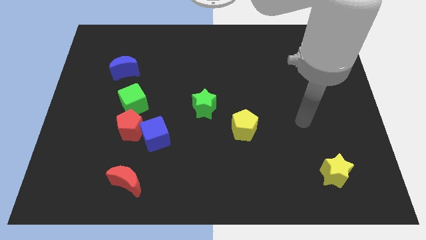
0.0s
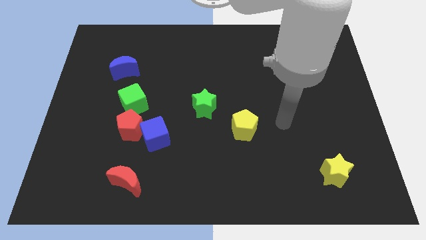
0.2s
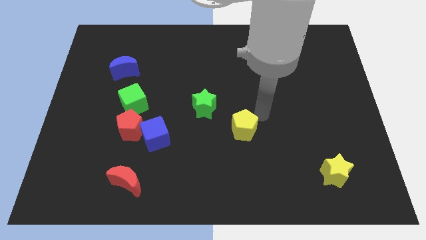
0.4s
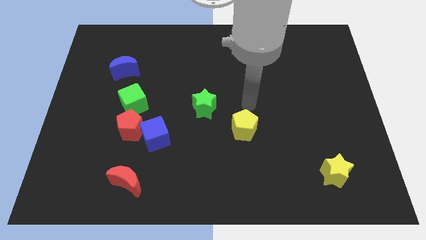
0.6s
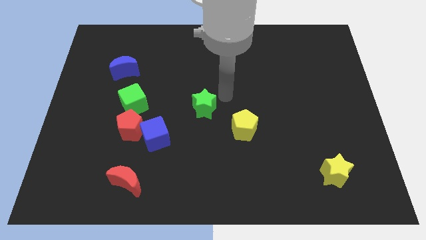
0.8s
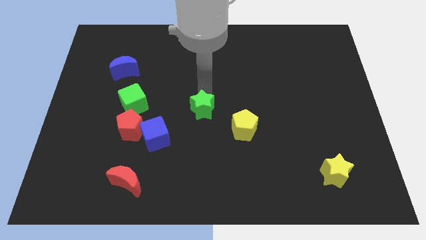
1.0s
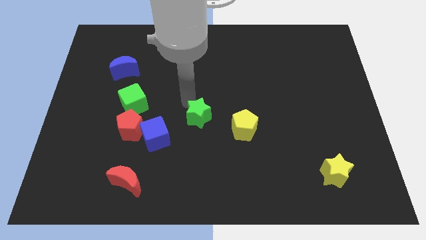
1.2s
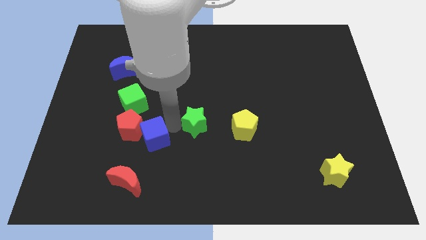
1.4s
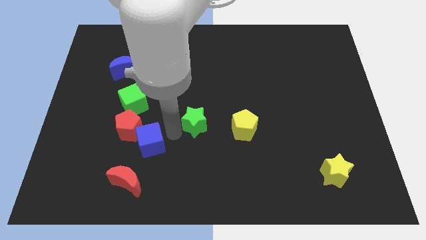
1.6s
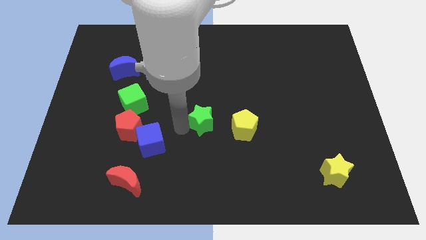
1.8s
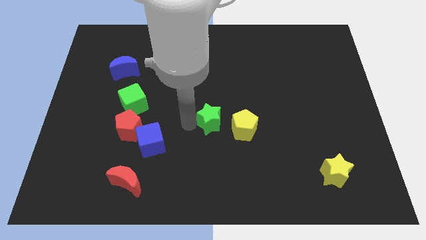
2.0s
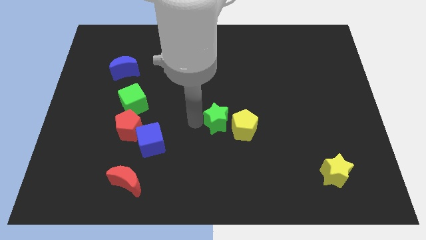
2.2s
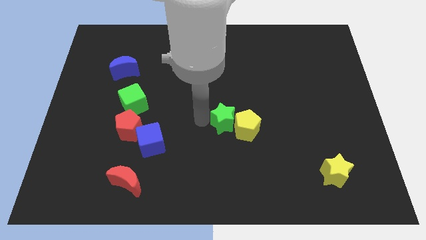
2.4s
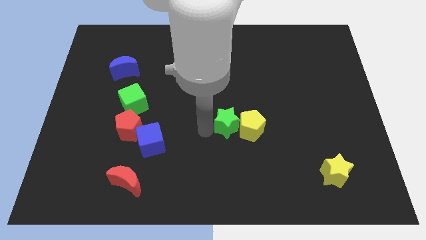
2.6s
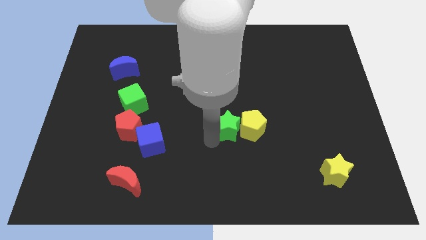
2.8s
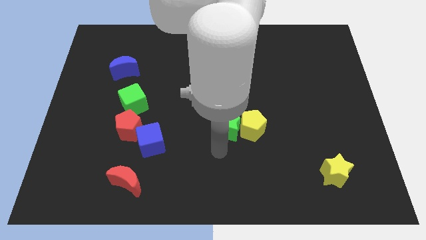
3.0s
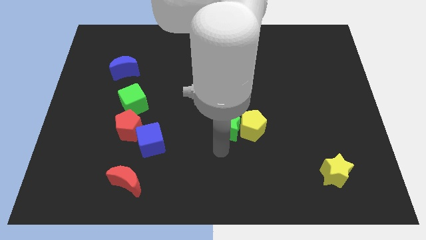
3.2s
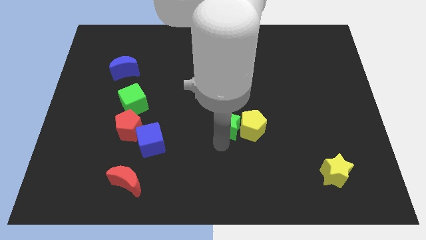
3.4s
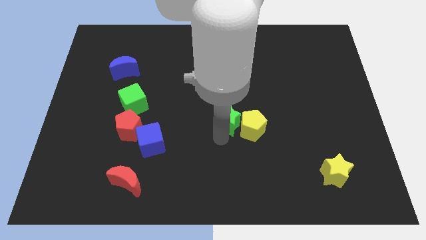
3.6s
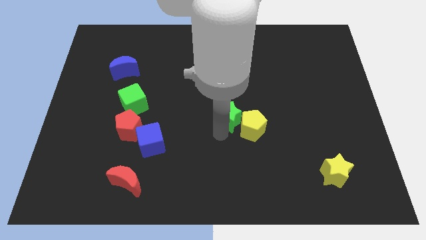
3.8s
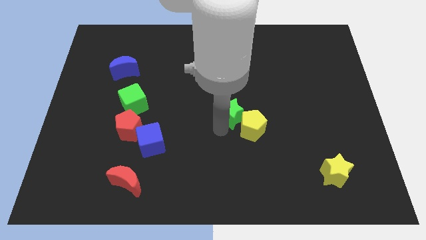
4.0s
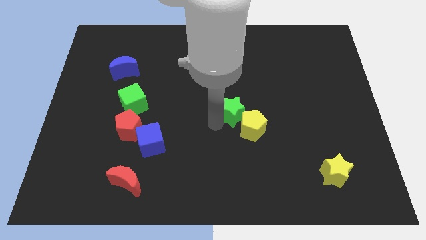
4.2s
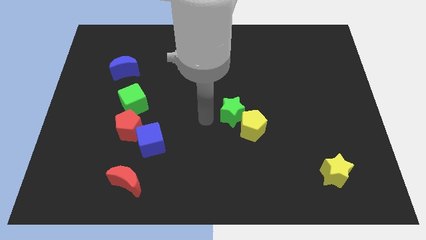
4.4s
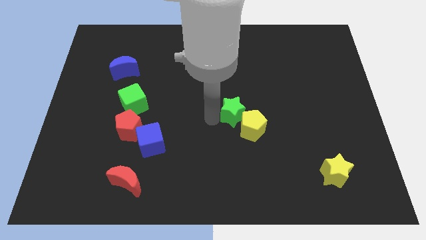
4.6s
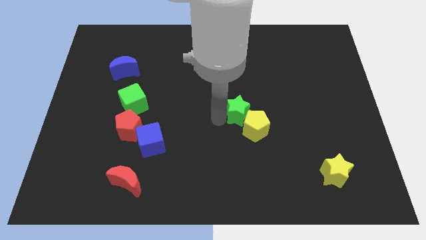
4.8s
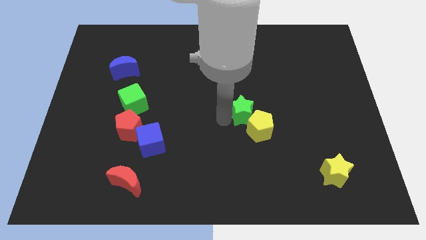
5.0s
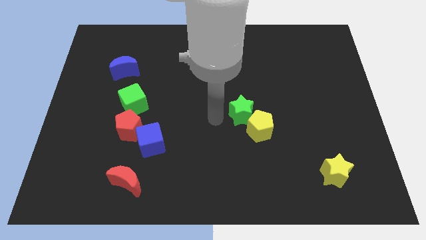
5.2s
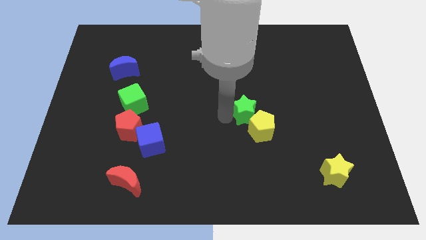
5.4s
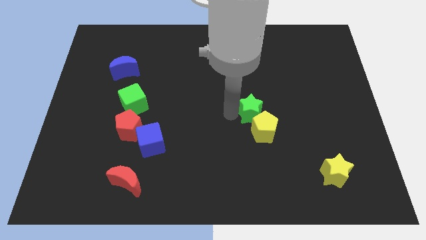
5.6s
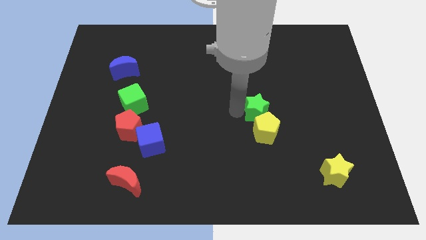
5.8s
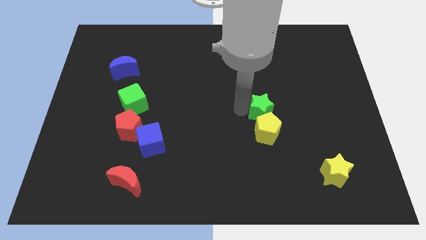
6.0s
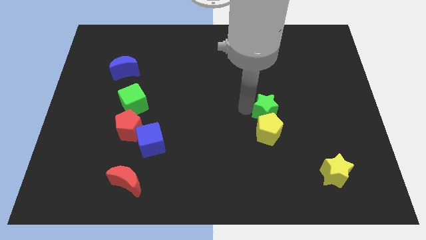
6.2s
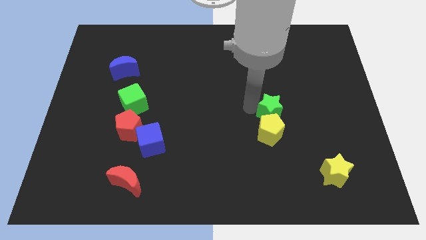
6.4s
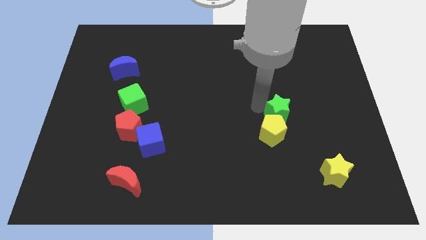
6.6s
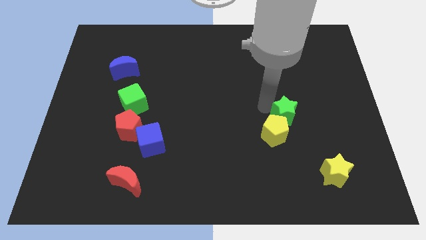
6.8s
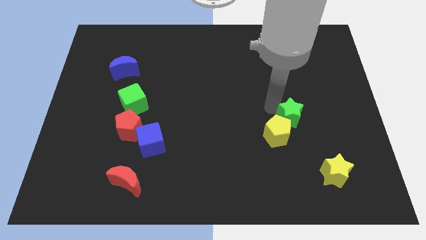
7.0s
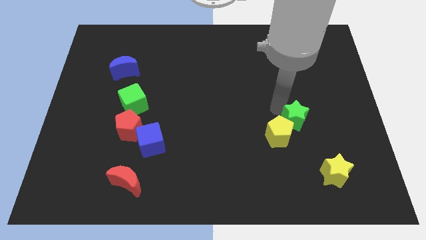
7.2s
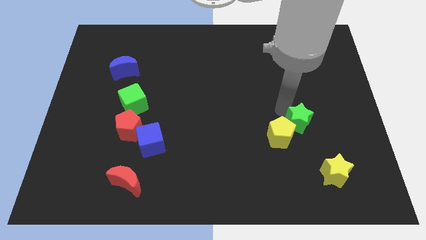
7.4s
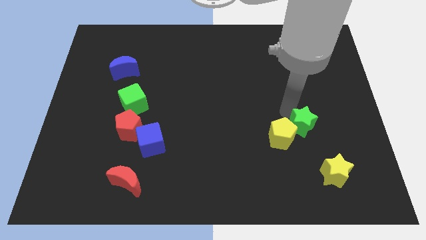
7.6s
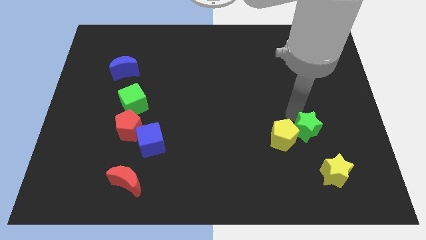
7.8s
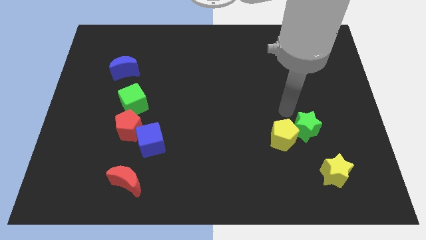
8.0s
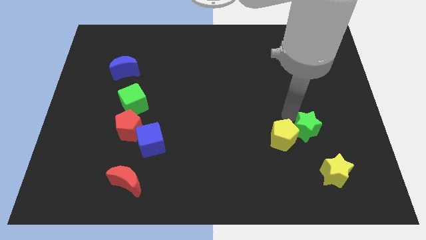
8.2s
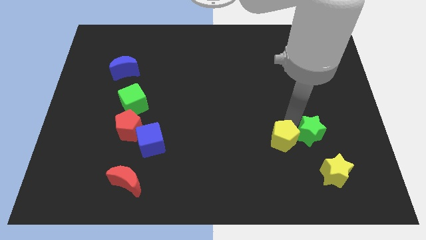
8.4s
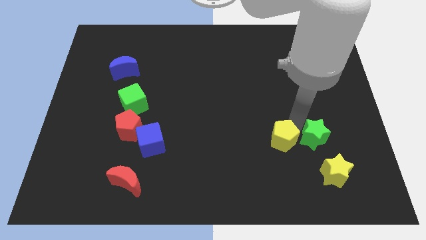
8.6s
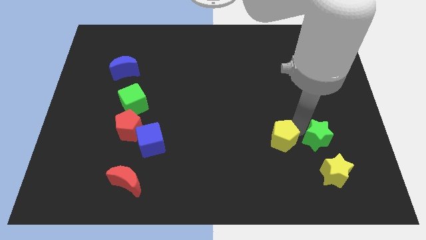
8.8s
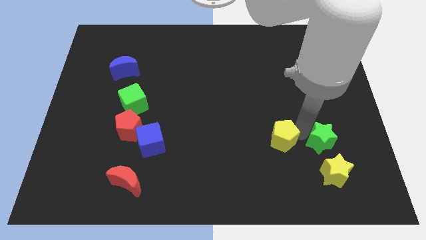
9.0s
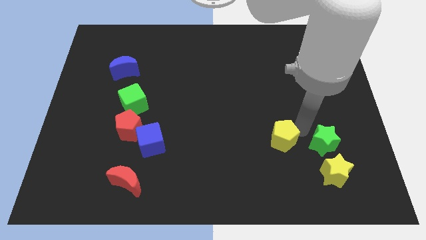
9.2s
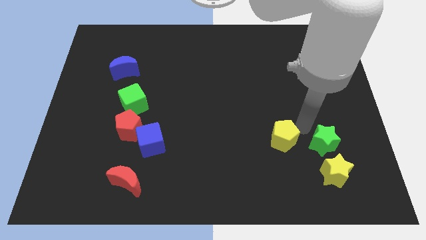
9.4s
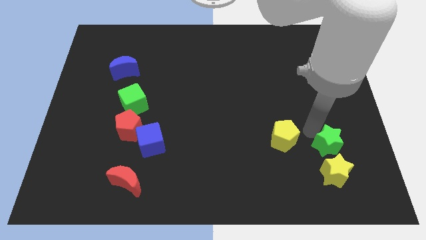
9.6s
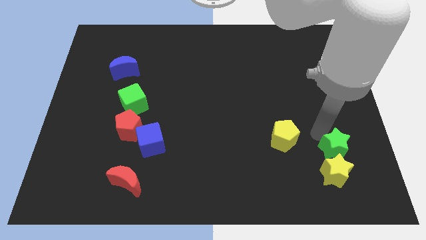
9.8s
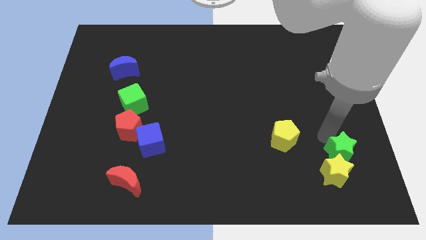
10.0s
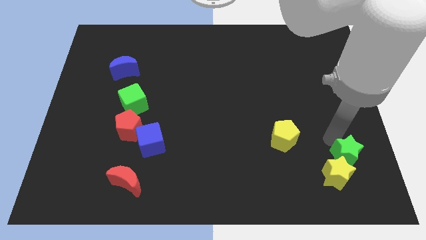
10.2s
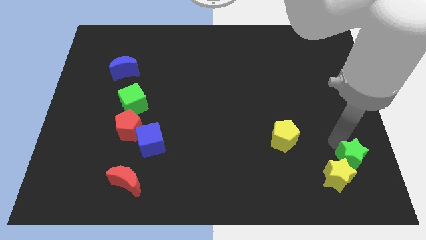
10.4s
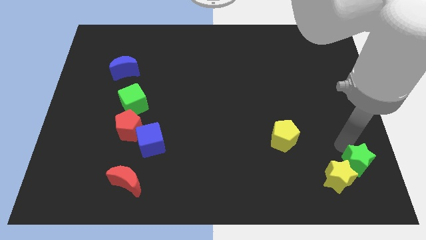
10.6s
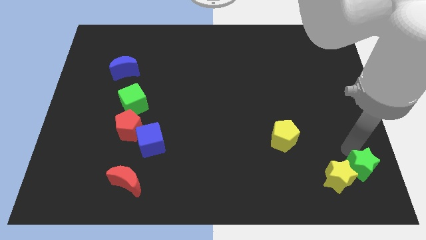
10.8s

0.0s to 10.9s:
move the green star to the bottom right corner

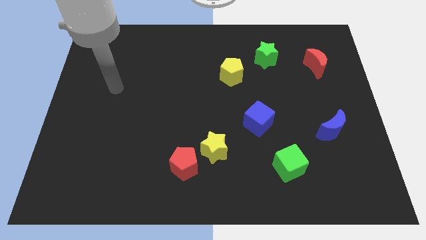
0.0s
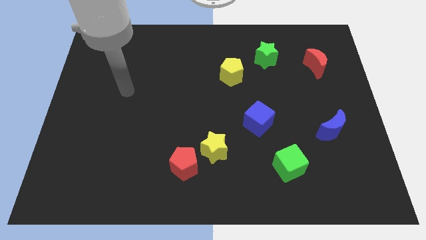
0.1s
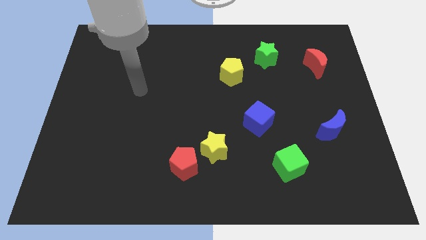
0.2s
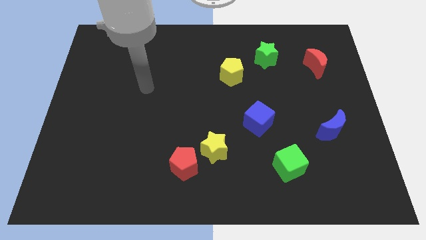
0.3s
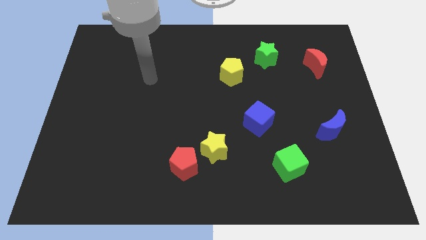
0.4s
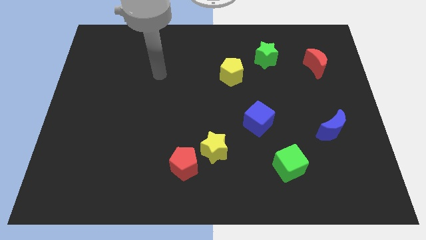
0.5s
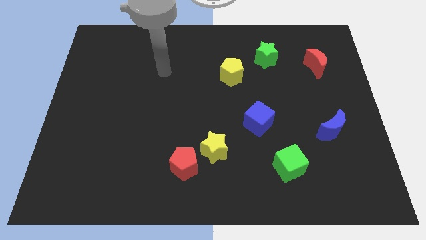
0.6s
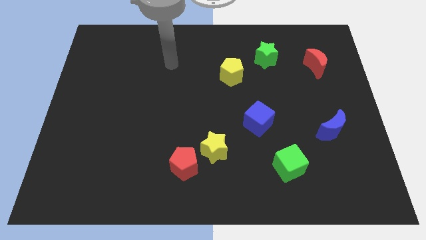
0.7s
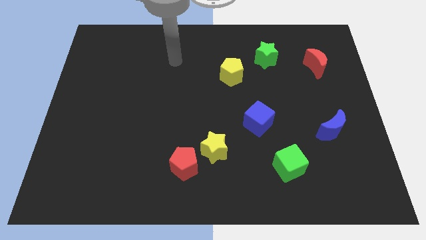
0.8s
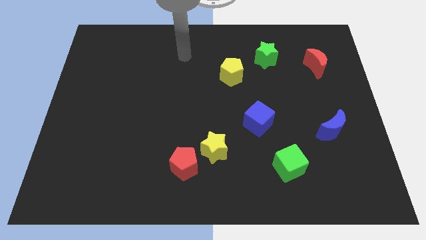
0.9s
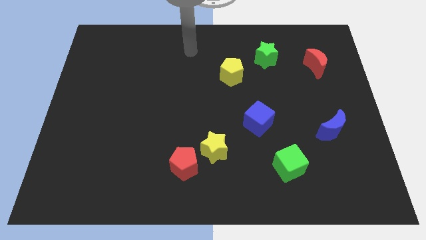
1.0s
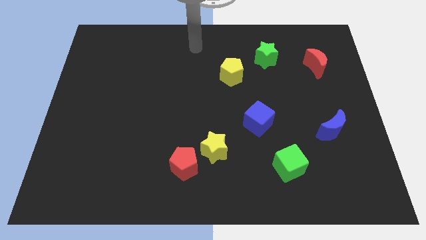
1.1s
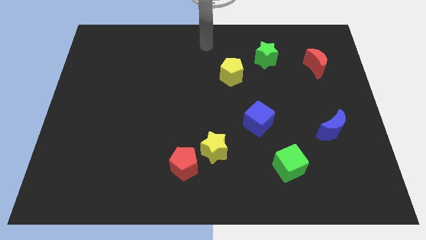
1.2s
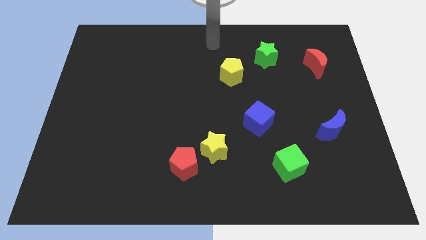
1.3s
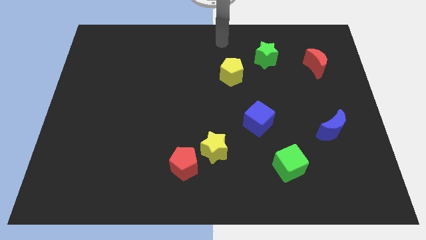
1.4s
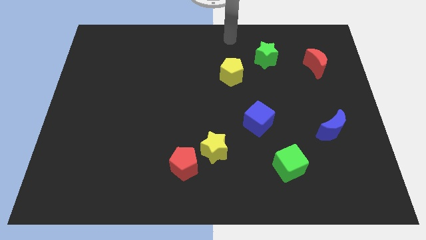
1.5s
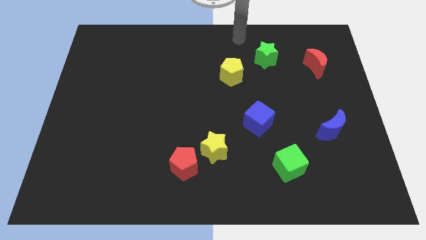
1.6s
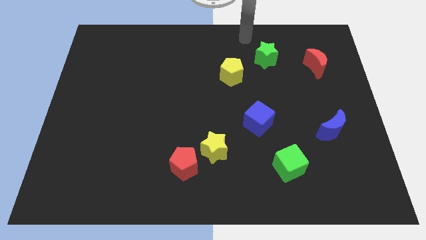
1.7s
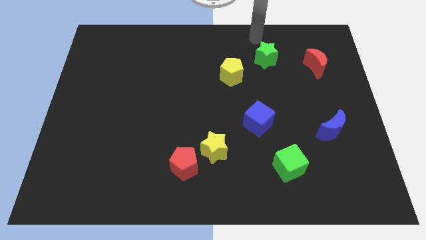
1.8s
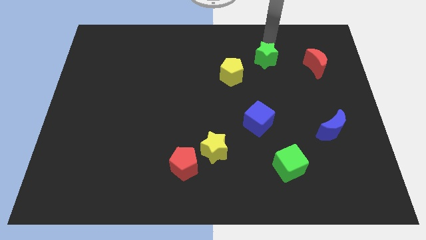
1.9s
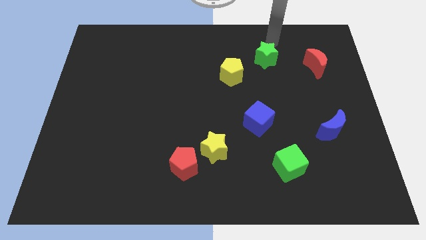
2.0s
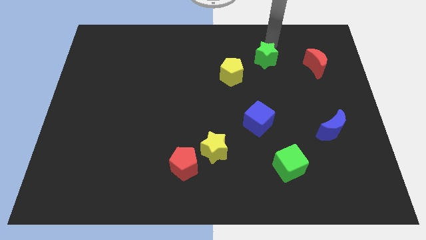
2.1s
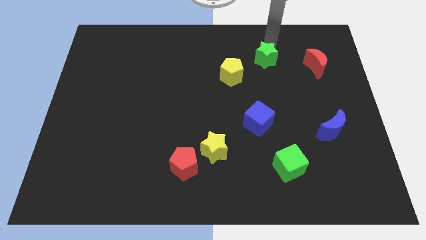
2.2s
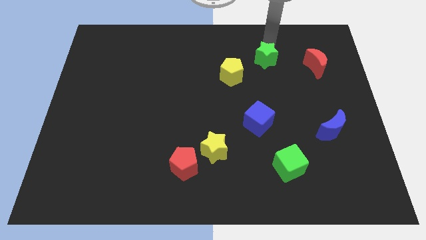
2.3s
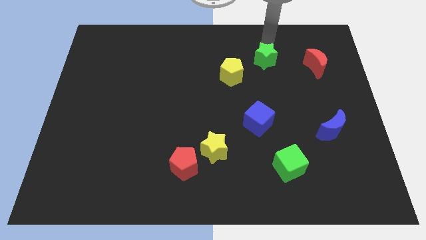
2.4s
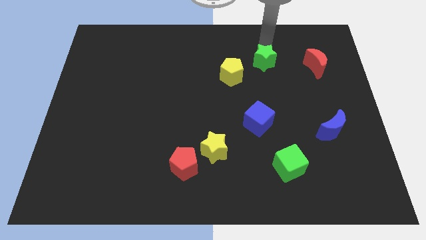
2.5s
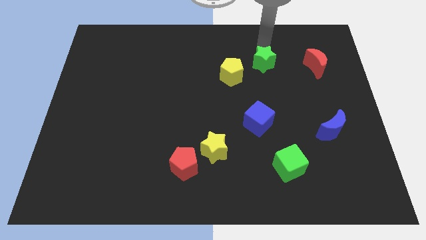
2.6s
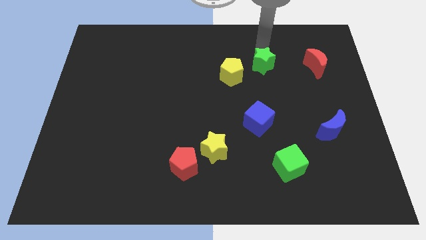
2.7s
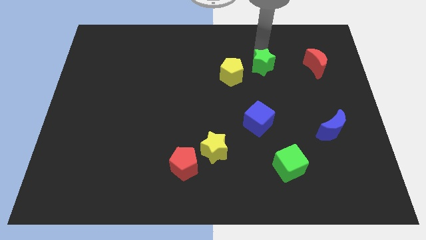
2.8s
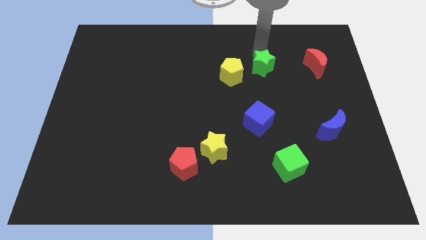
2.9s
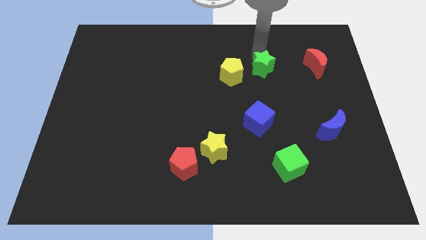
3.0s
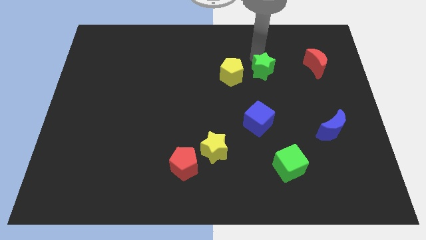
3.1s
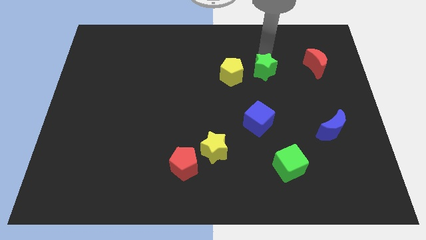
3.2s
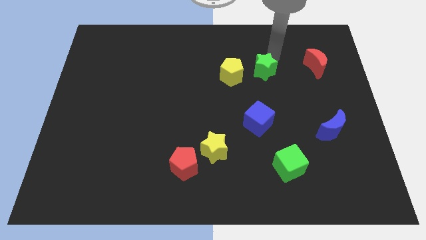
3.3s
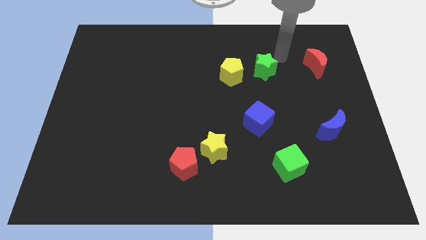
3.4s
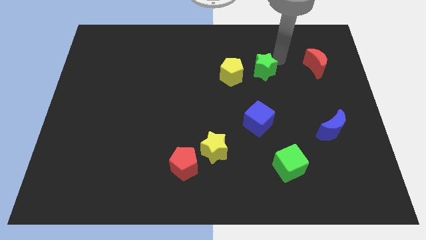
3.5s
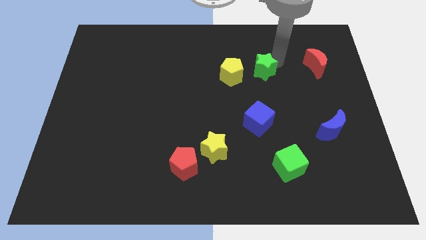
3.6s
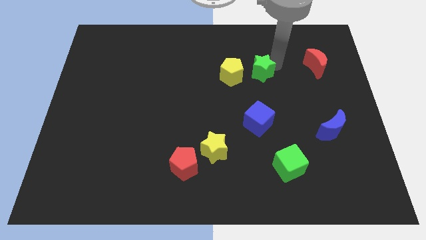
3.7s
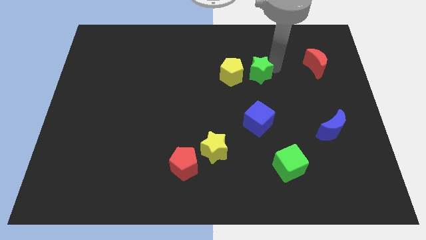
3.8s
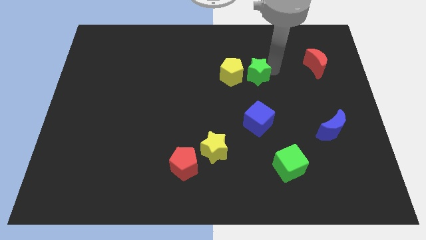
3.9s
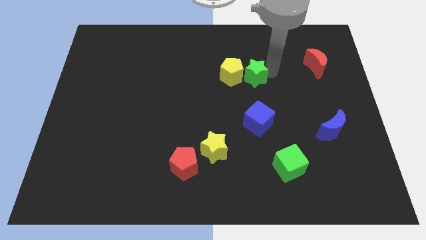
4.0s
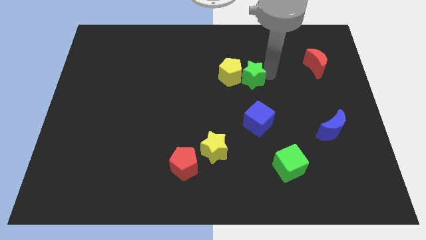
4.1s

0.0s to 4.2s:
put the green star to the center
